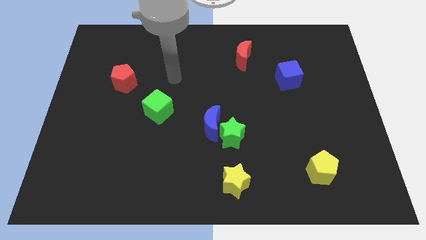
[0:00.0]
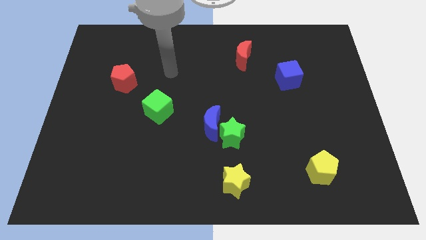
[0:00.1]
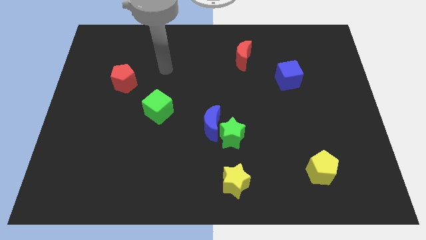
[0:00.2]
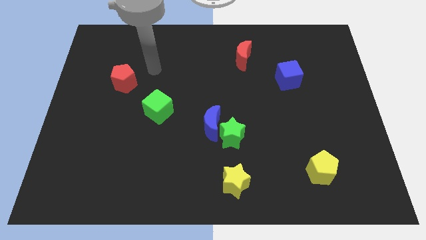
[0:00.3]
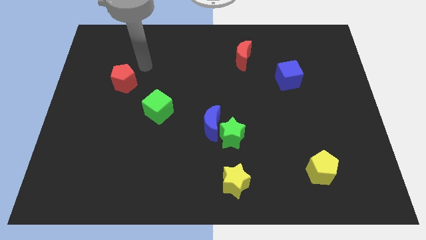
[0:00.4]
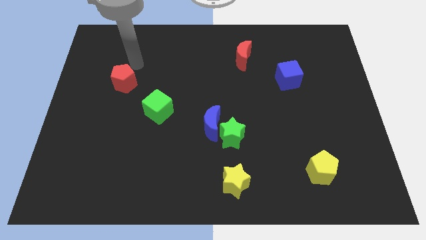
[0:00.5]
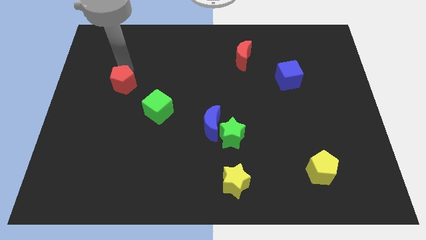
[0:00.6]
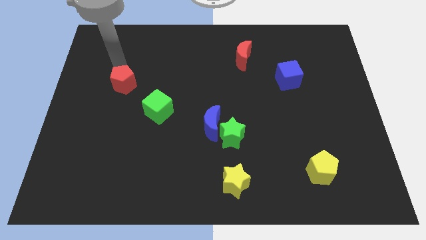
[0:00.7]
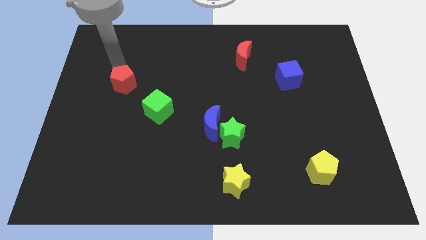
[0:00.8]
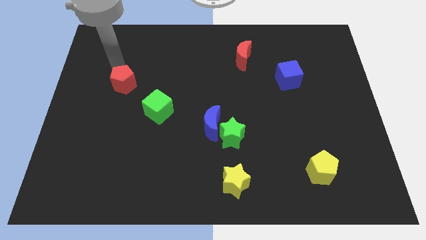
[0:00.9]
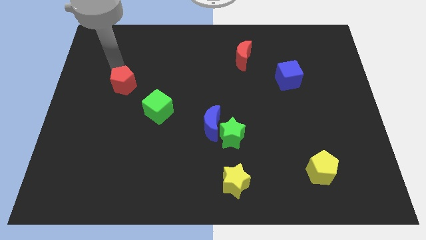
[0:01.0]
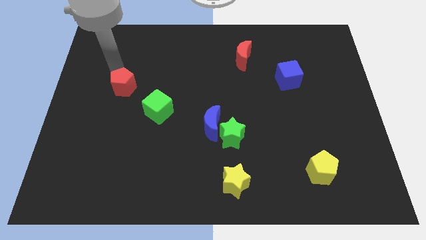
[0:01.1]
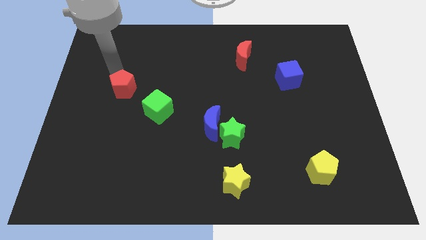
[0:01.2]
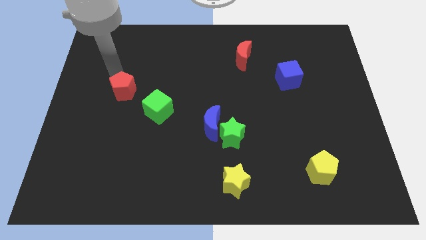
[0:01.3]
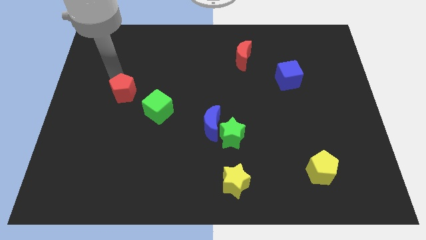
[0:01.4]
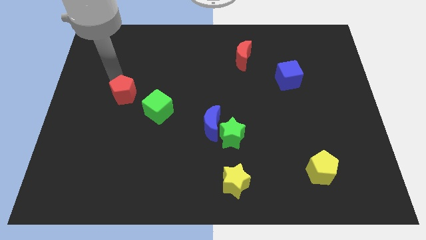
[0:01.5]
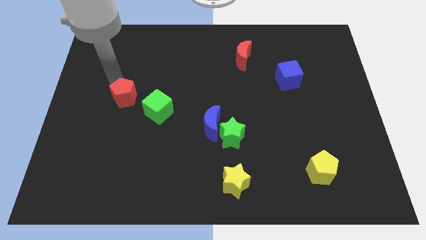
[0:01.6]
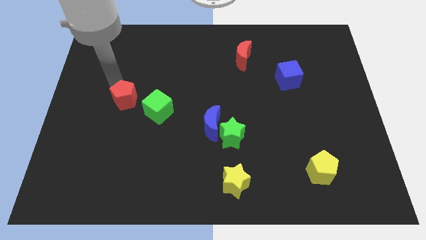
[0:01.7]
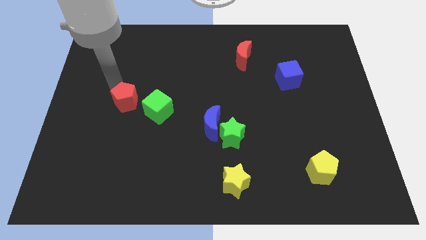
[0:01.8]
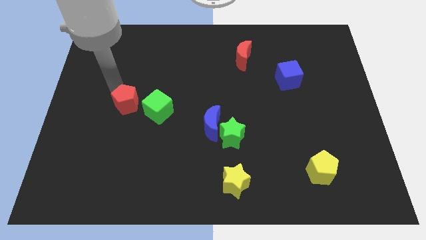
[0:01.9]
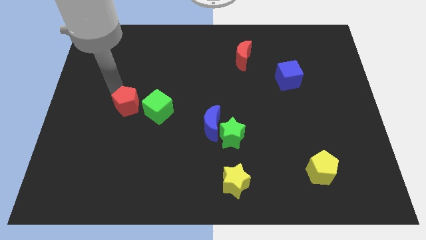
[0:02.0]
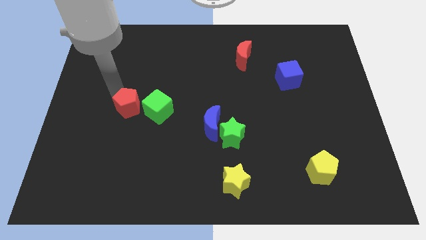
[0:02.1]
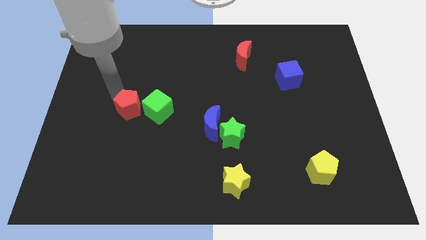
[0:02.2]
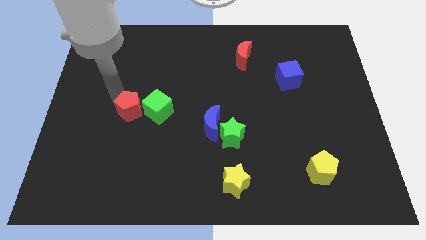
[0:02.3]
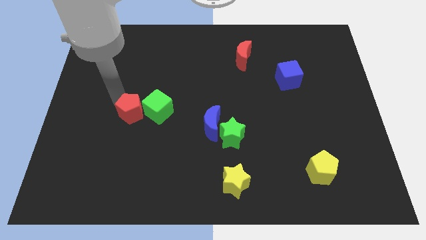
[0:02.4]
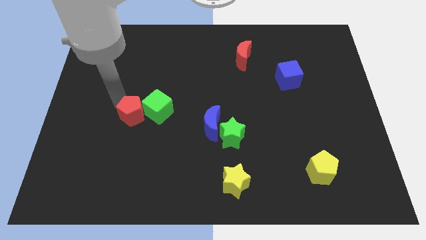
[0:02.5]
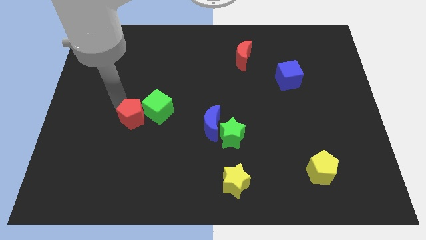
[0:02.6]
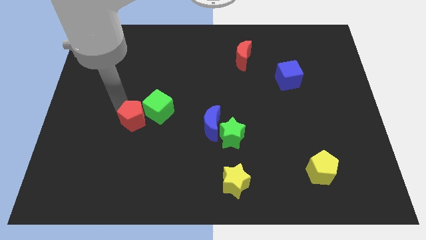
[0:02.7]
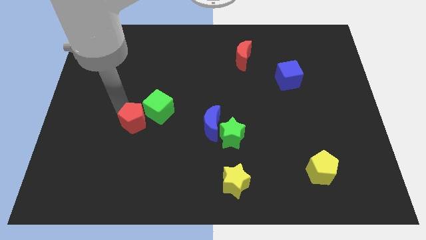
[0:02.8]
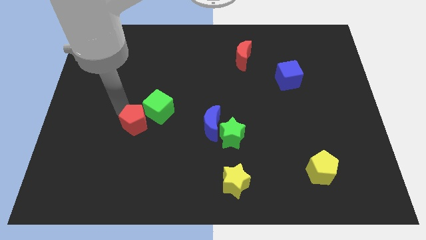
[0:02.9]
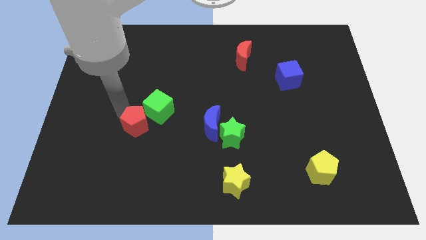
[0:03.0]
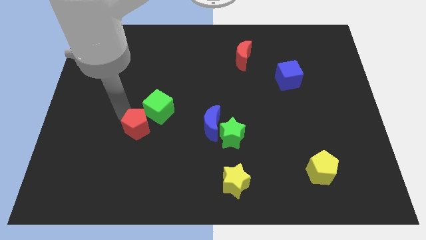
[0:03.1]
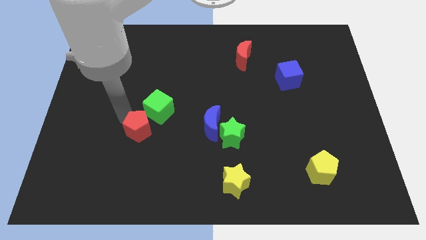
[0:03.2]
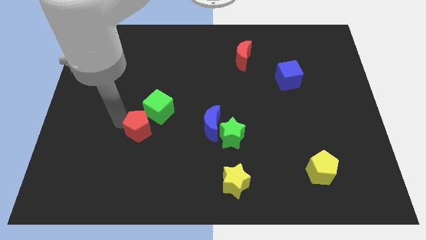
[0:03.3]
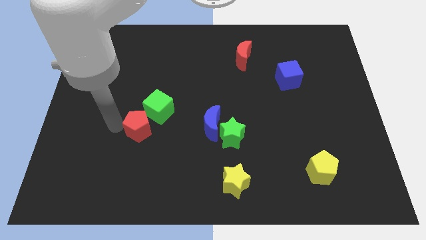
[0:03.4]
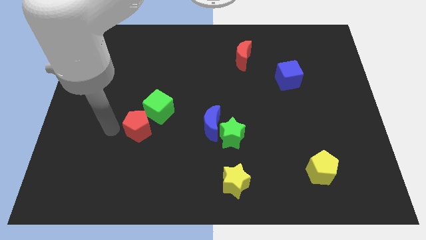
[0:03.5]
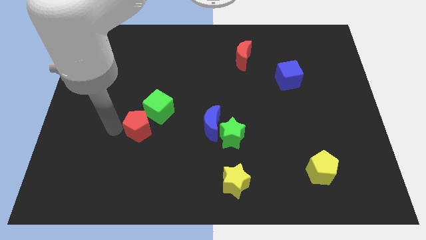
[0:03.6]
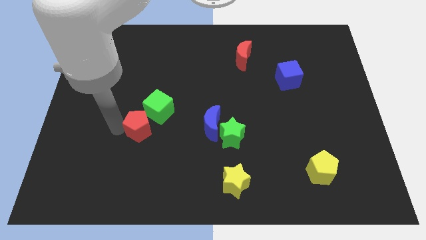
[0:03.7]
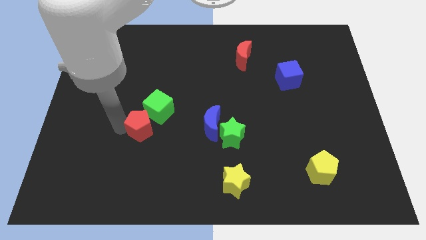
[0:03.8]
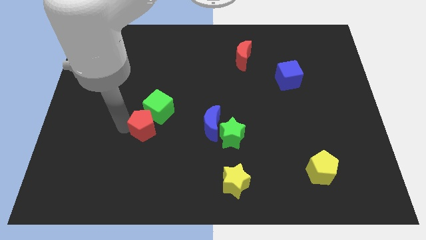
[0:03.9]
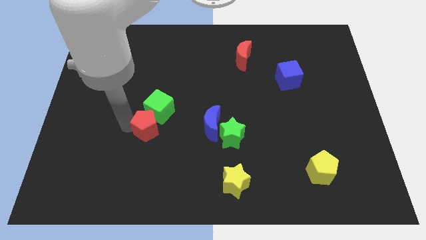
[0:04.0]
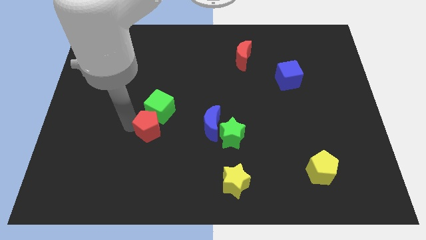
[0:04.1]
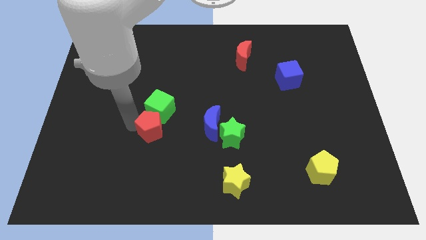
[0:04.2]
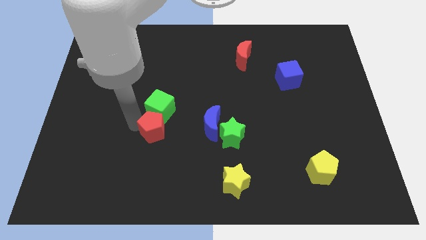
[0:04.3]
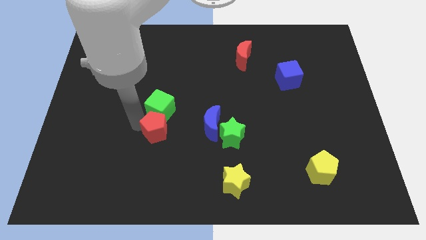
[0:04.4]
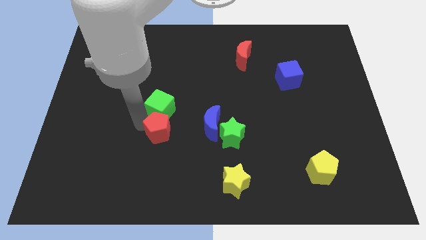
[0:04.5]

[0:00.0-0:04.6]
slide the red pentagon just left of the green star

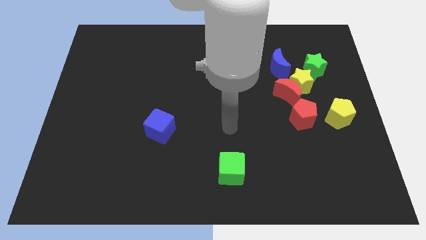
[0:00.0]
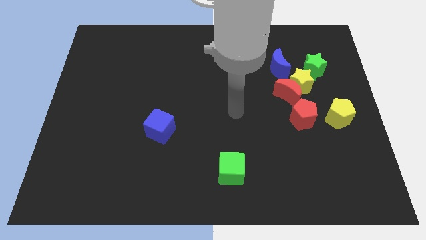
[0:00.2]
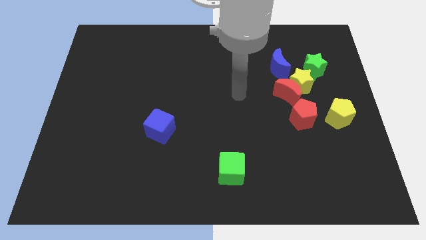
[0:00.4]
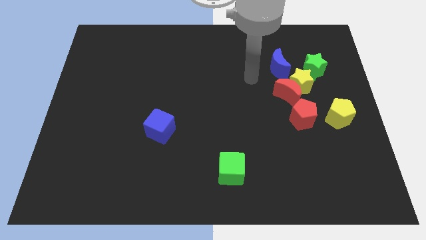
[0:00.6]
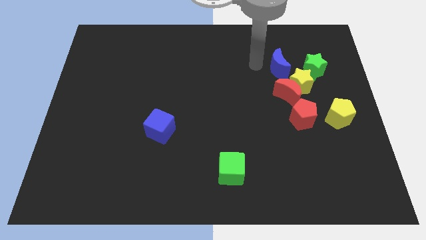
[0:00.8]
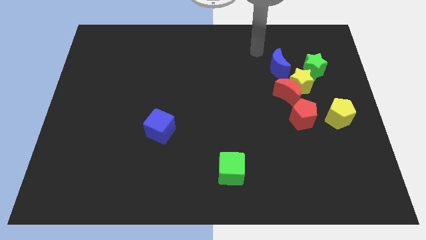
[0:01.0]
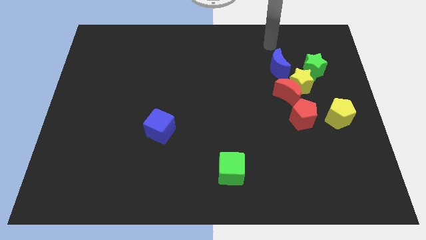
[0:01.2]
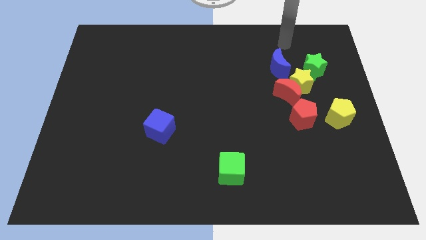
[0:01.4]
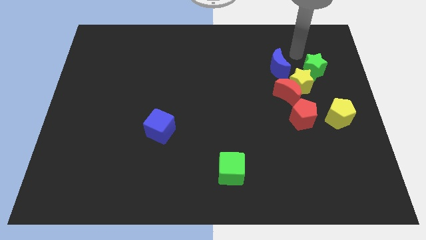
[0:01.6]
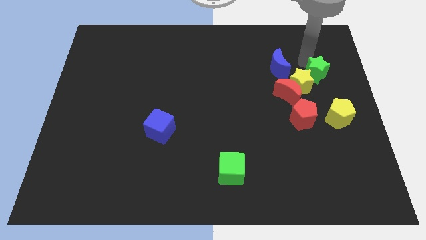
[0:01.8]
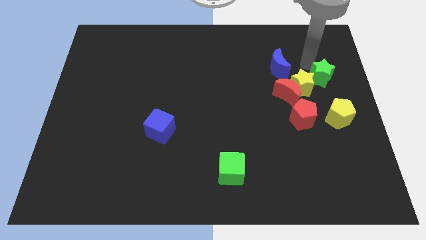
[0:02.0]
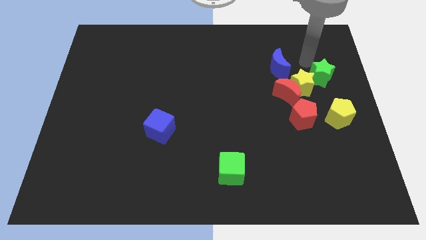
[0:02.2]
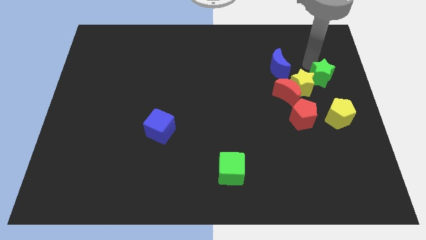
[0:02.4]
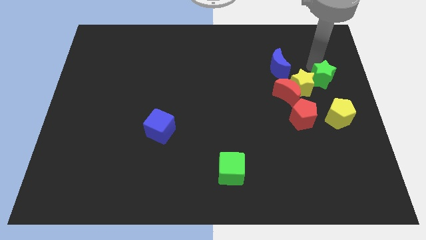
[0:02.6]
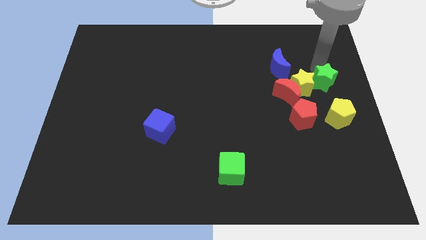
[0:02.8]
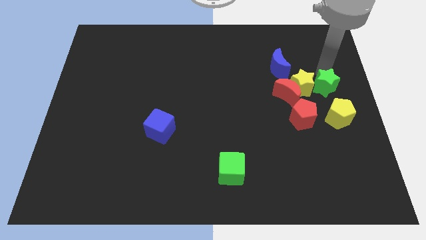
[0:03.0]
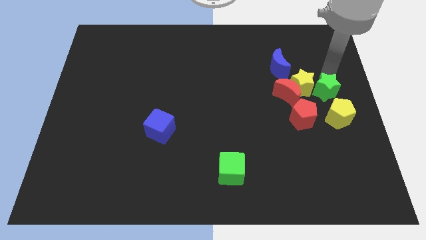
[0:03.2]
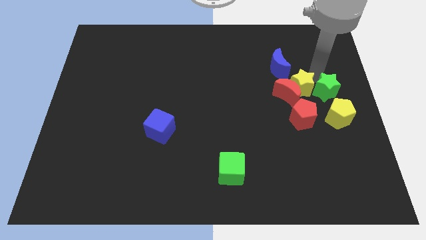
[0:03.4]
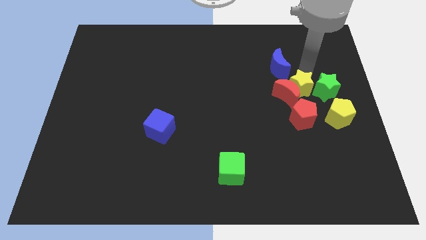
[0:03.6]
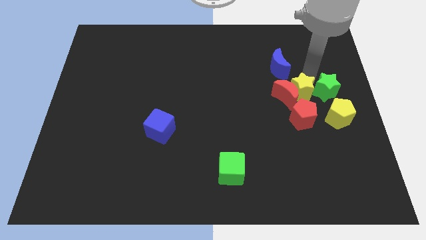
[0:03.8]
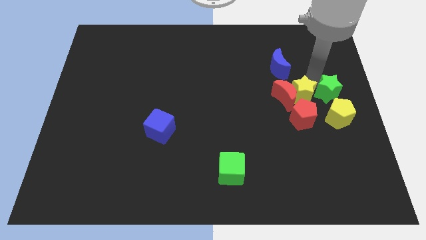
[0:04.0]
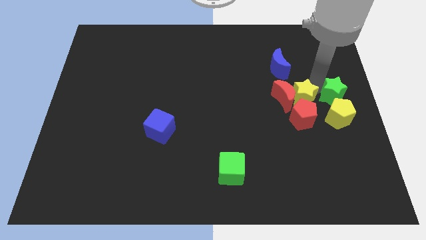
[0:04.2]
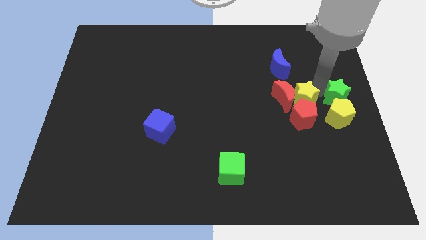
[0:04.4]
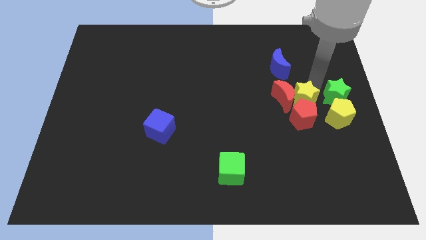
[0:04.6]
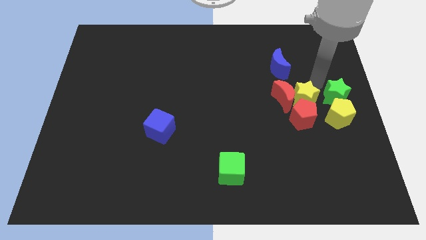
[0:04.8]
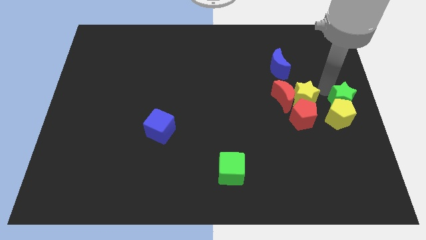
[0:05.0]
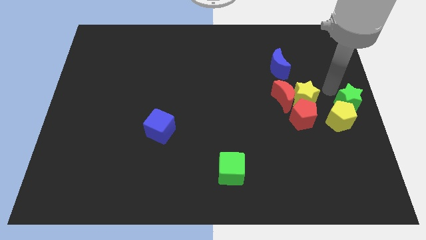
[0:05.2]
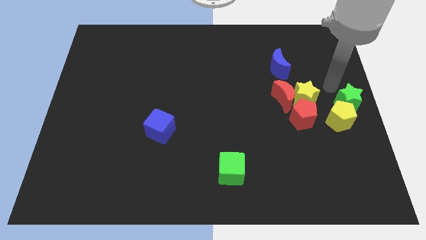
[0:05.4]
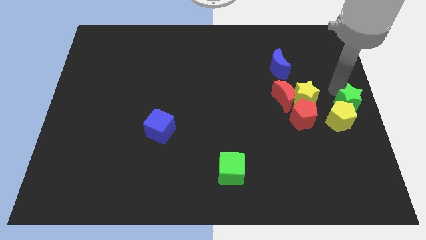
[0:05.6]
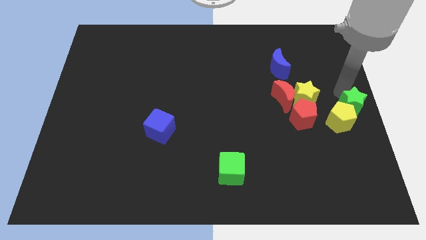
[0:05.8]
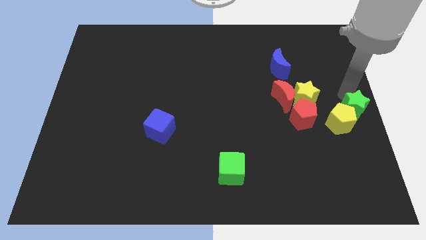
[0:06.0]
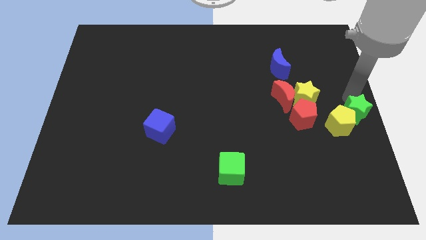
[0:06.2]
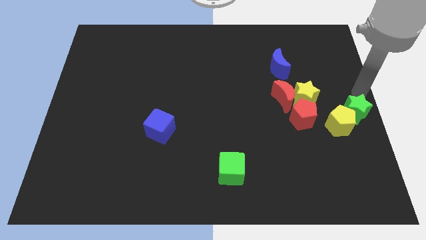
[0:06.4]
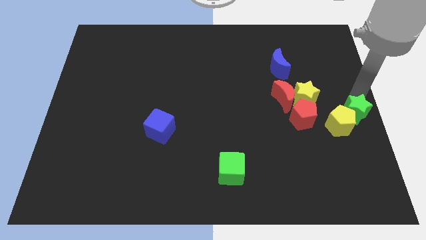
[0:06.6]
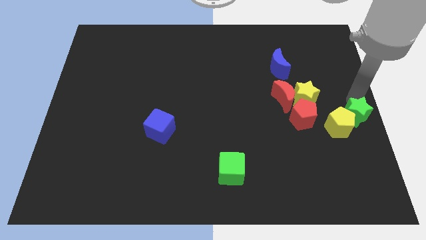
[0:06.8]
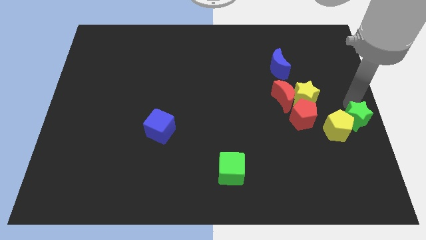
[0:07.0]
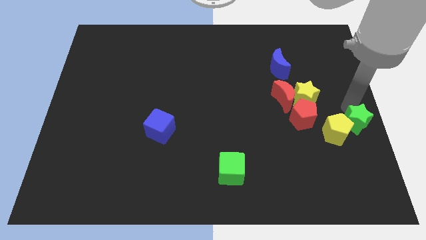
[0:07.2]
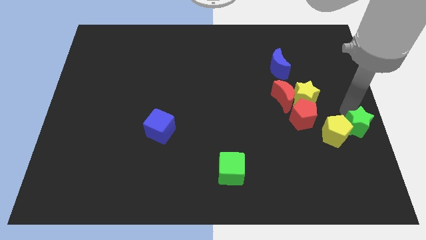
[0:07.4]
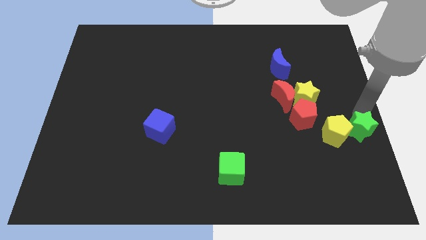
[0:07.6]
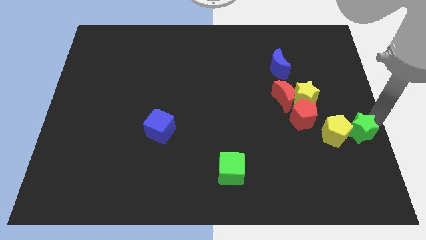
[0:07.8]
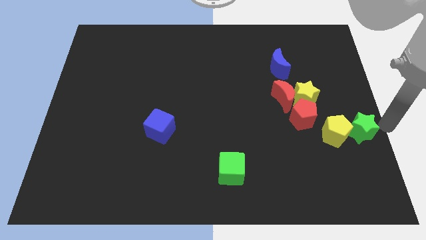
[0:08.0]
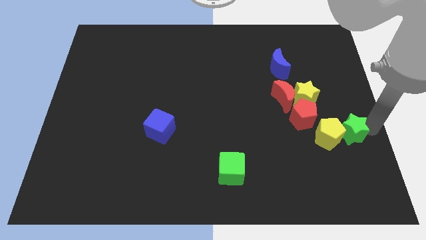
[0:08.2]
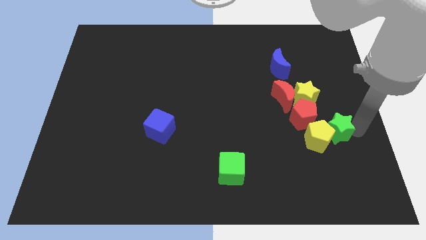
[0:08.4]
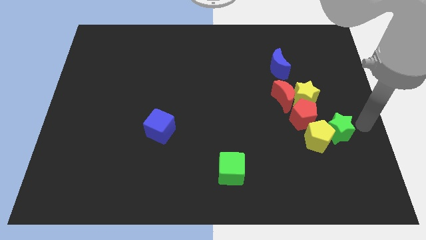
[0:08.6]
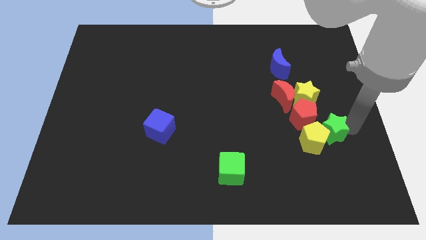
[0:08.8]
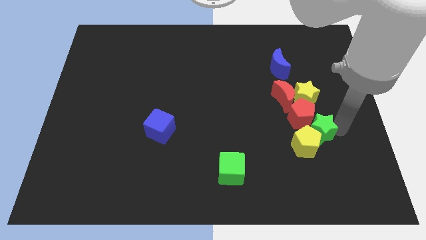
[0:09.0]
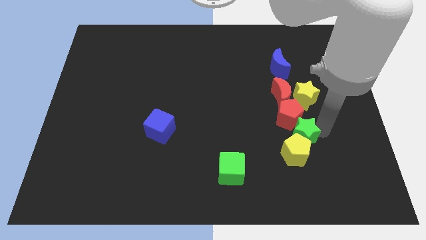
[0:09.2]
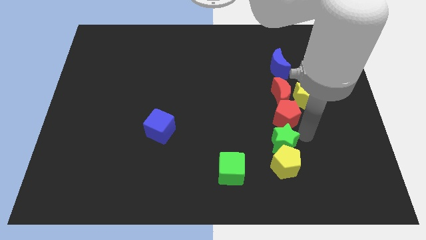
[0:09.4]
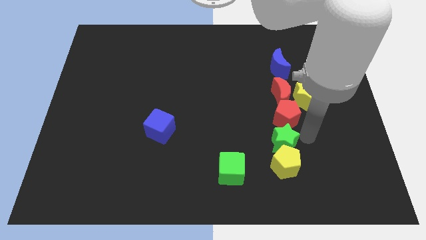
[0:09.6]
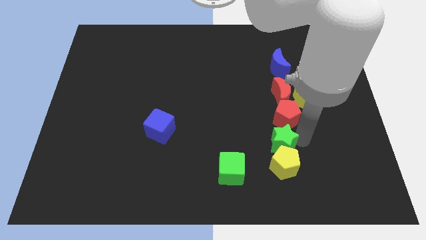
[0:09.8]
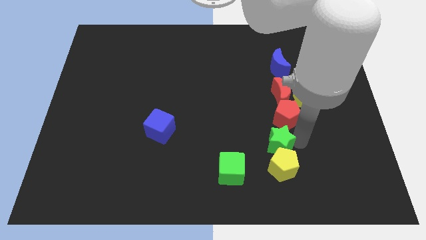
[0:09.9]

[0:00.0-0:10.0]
put the green star to the top right side of the green cube
